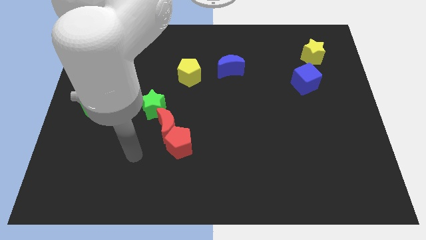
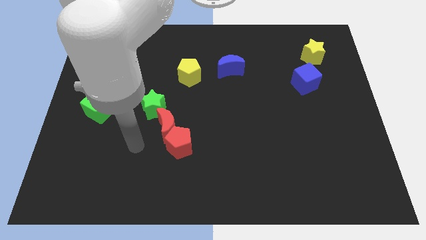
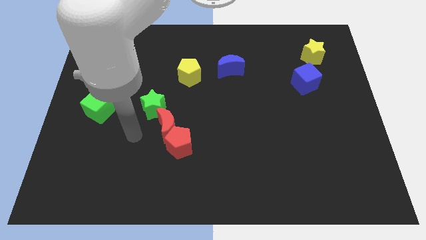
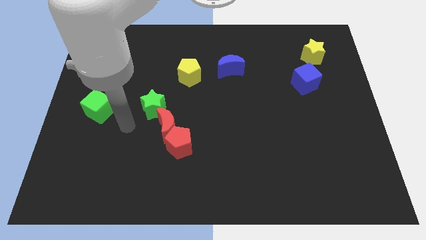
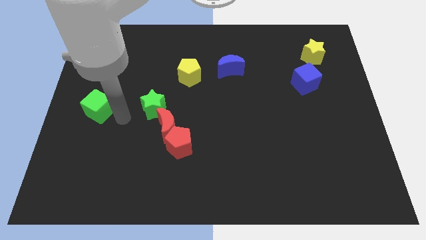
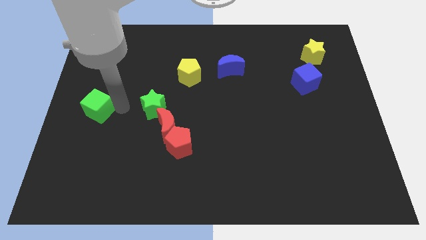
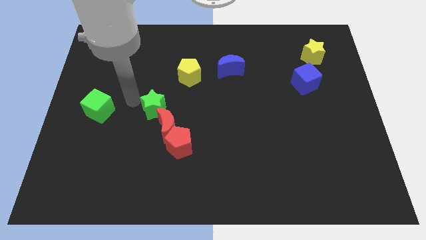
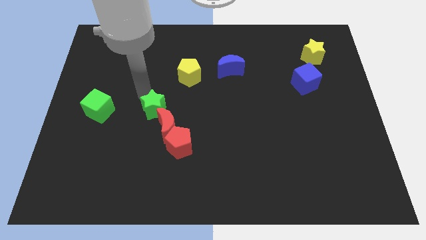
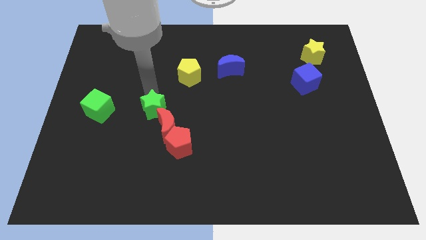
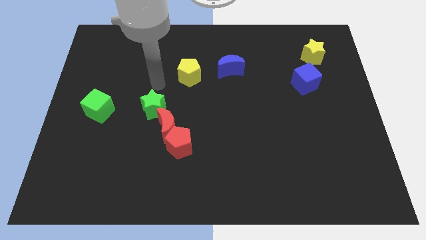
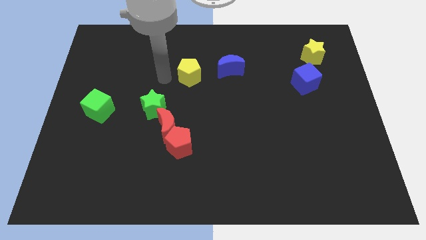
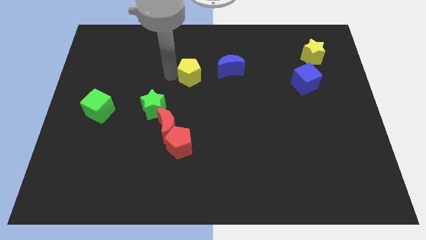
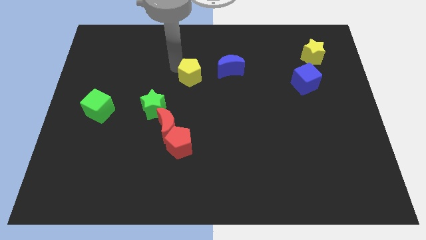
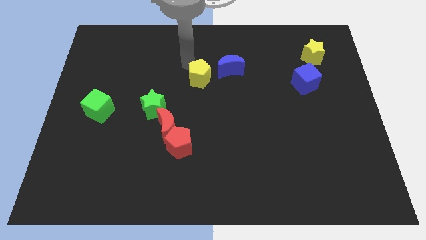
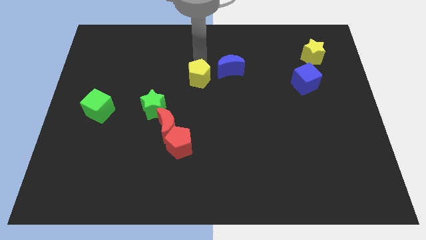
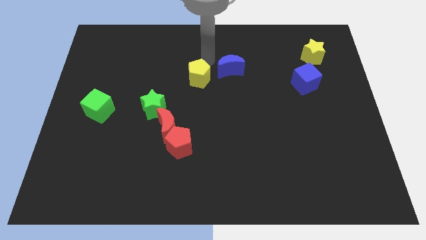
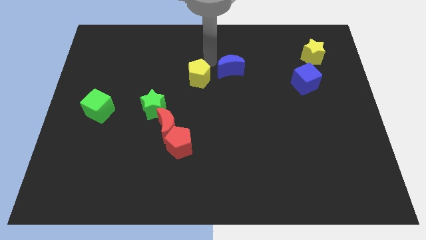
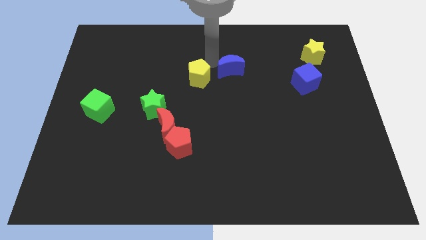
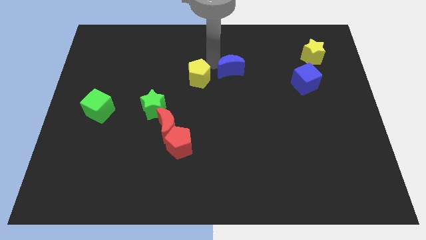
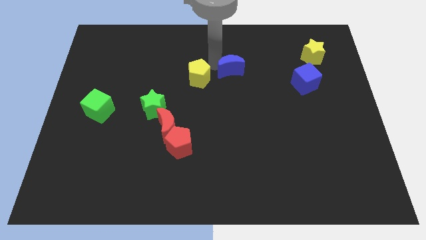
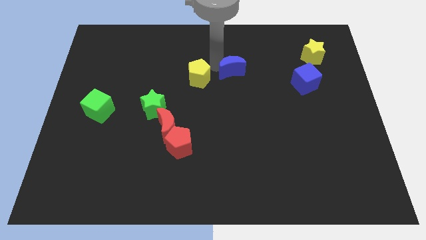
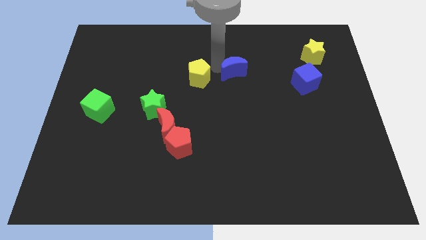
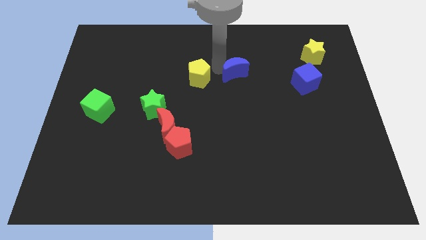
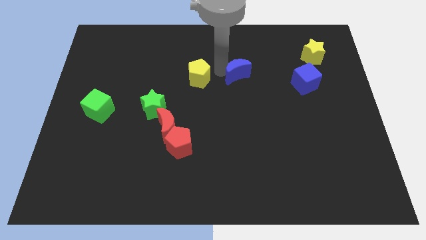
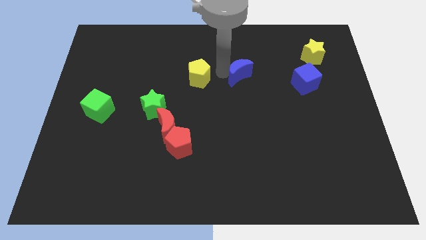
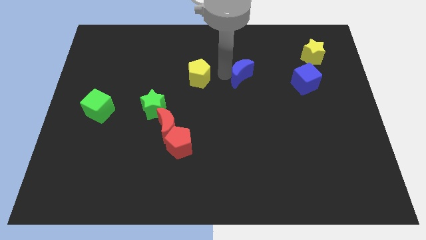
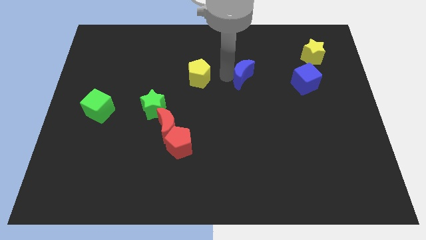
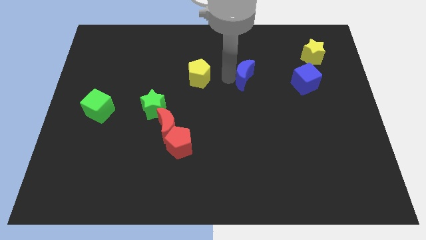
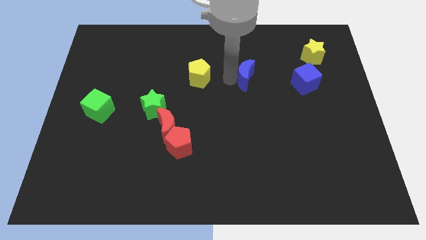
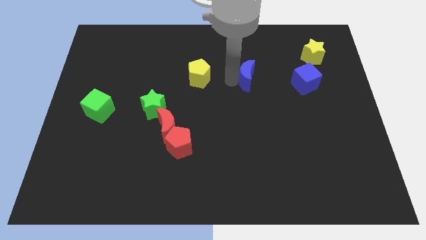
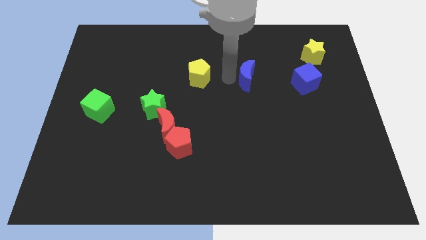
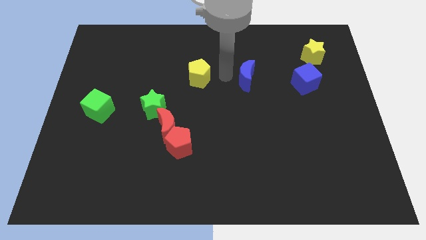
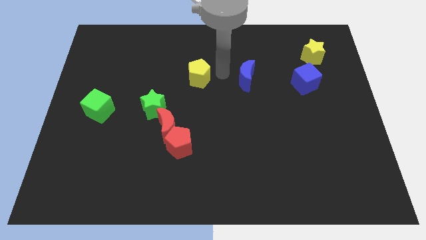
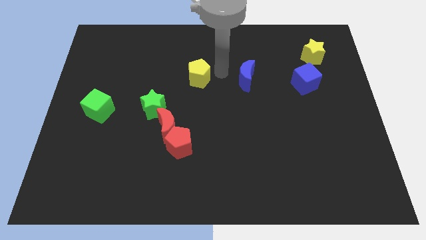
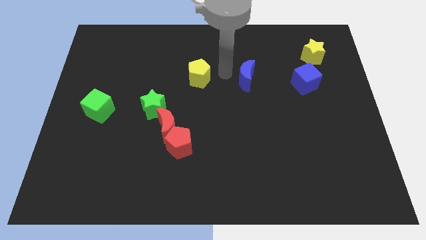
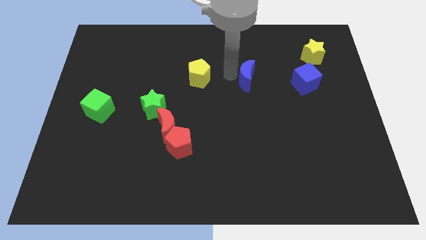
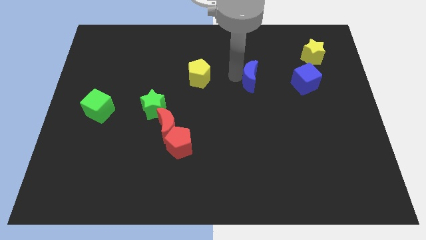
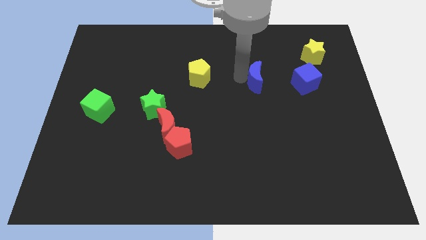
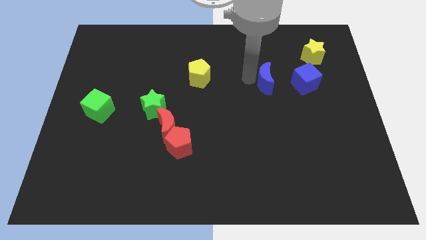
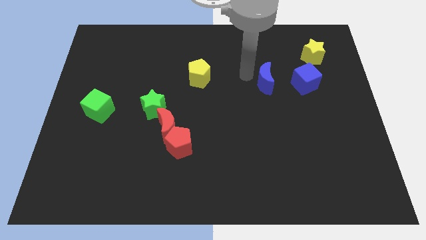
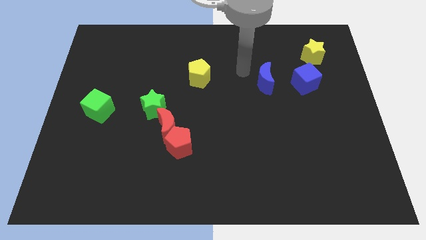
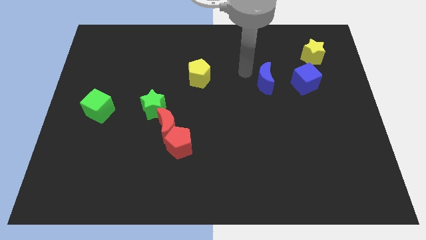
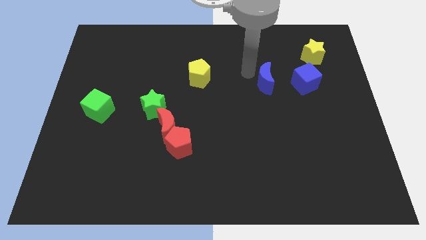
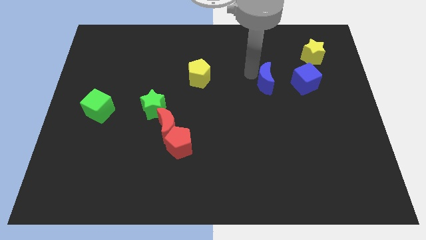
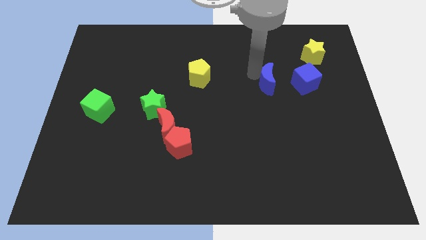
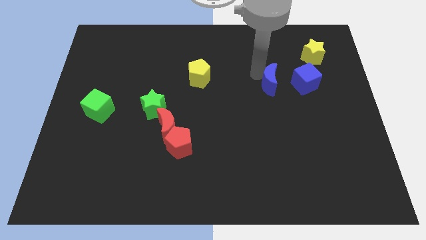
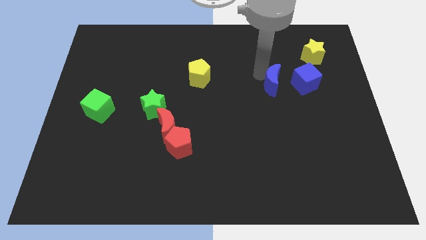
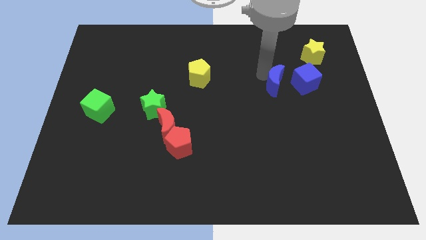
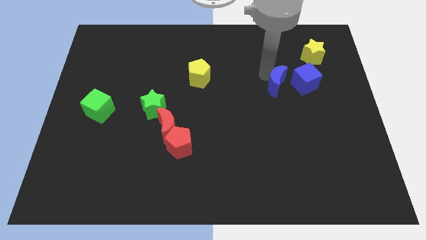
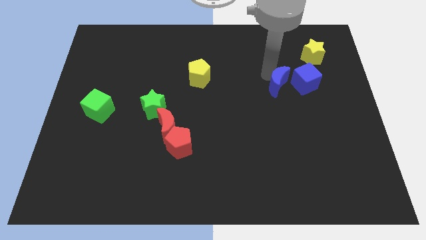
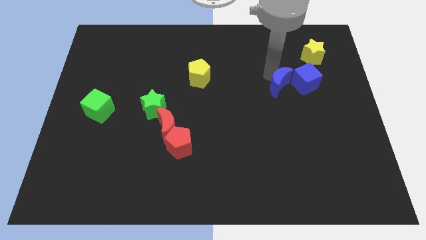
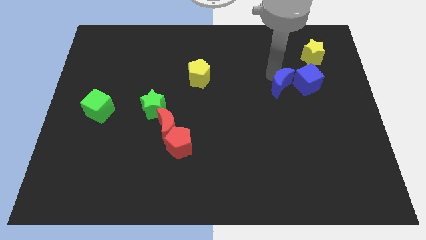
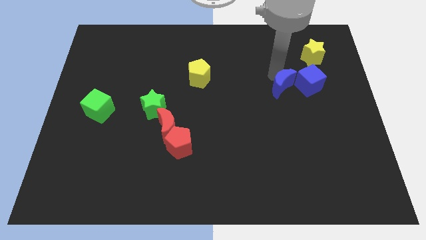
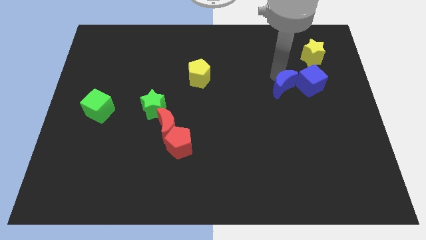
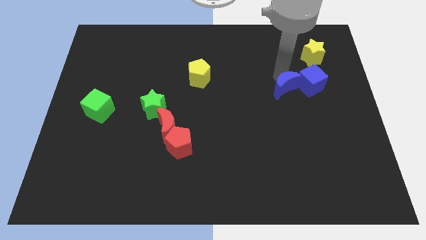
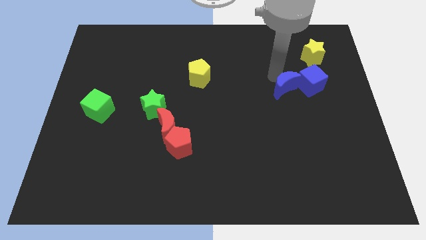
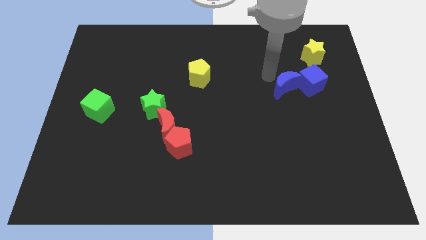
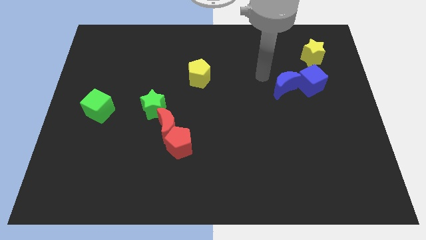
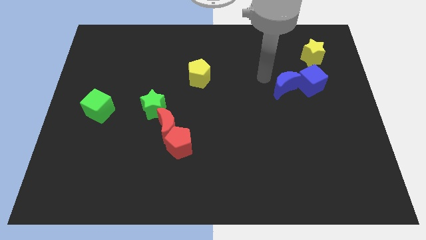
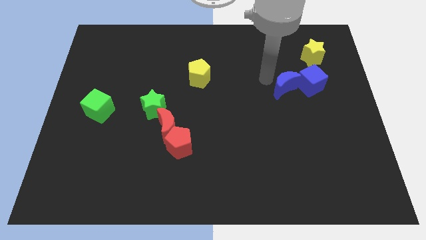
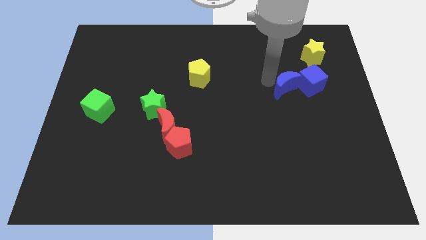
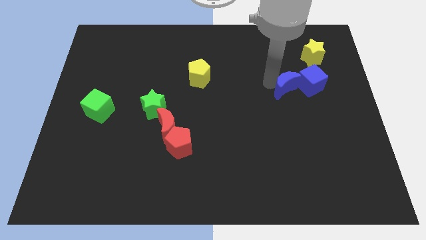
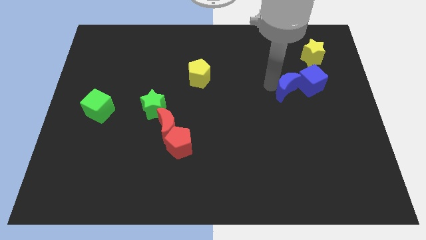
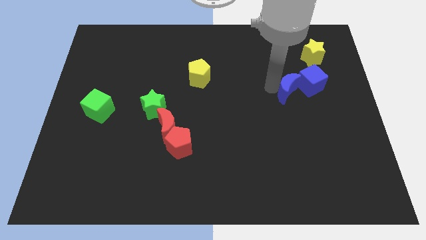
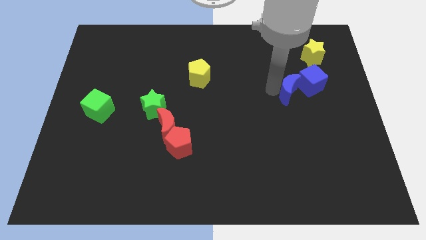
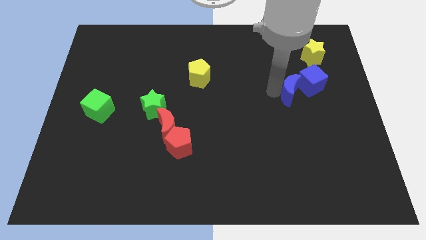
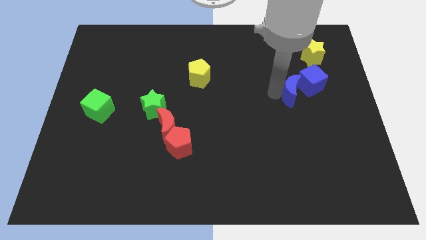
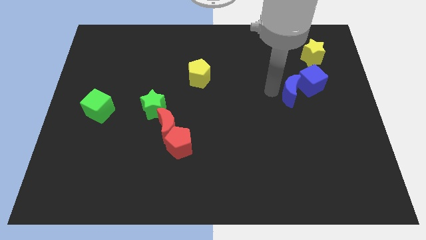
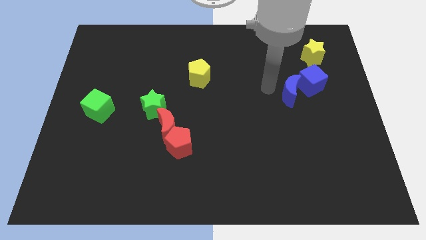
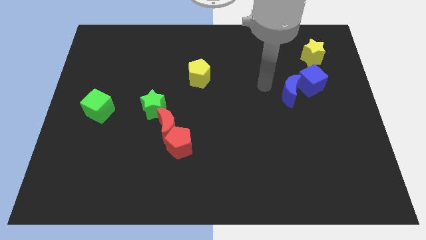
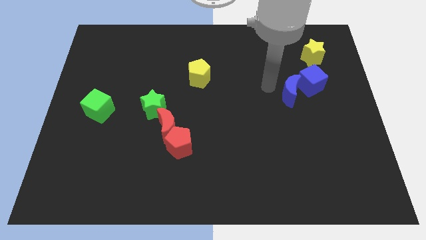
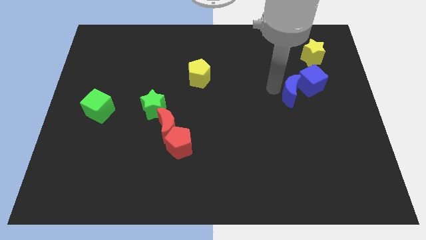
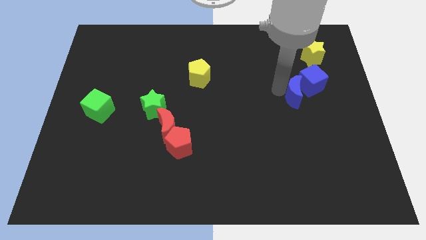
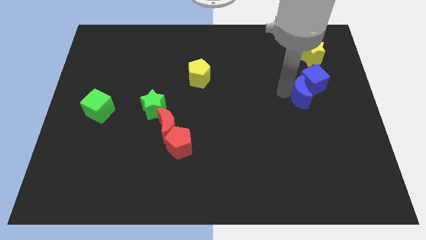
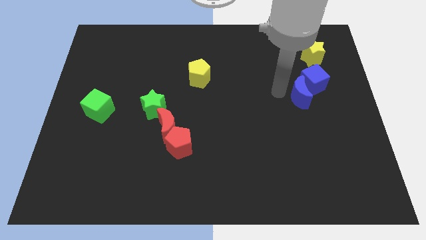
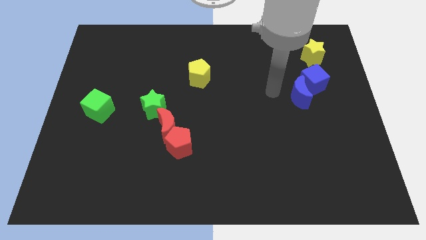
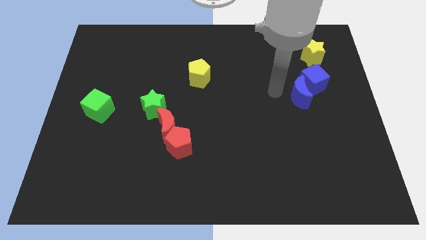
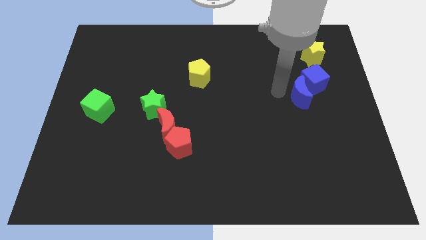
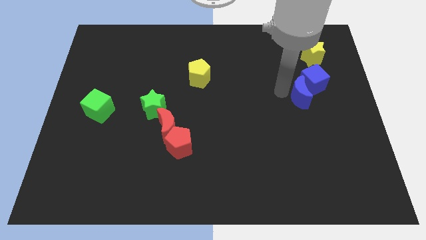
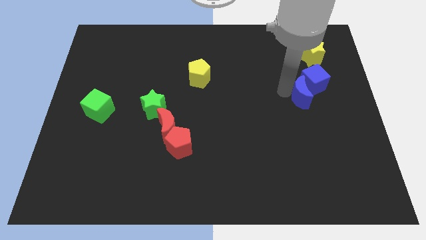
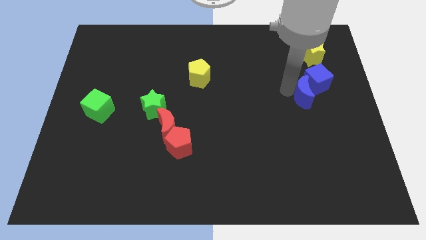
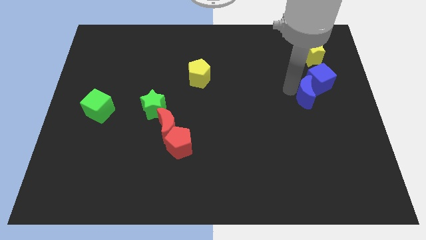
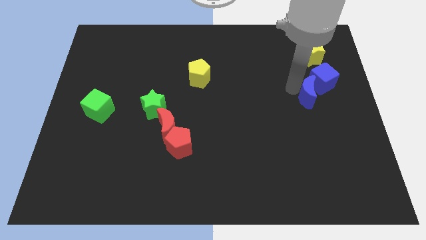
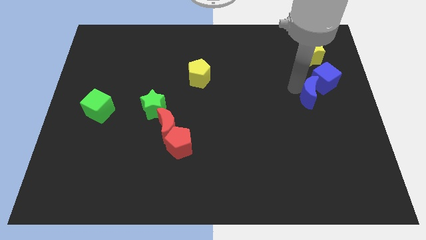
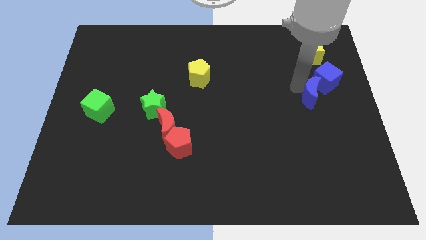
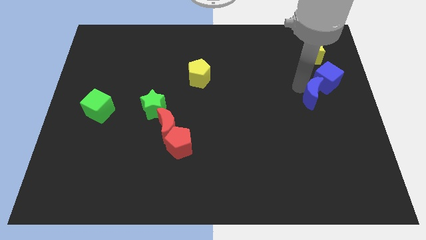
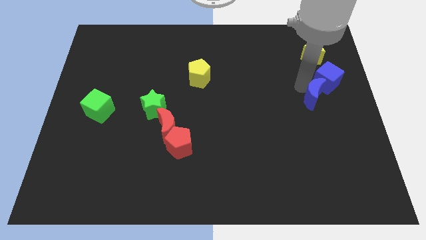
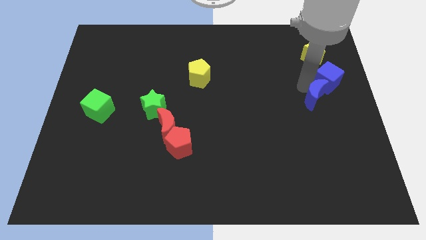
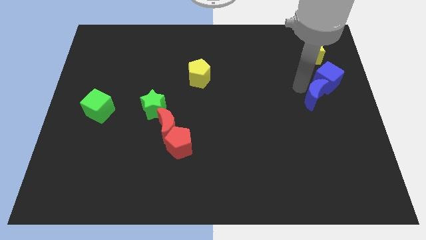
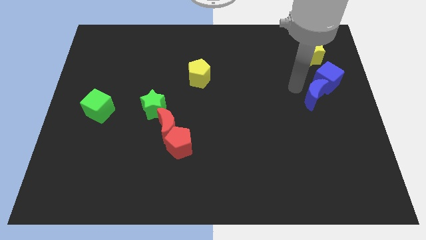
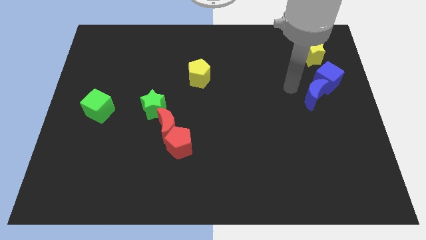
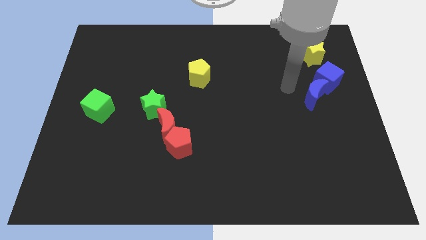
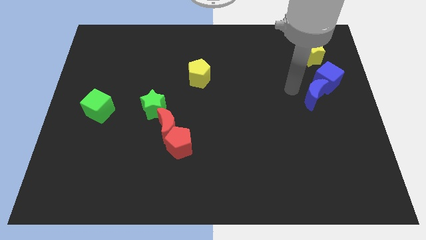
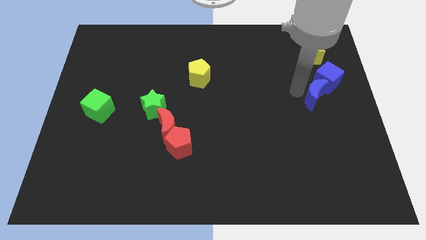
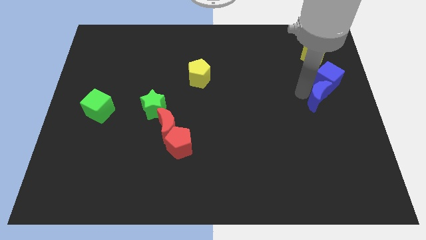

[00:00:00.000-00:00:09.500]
slide the blue moon to the right side
